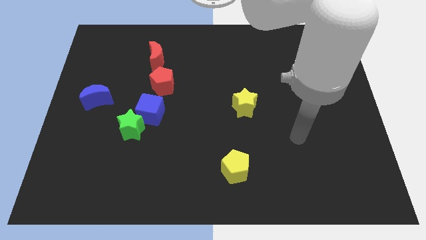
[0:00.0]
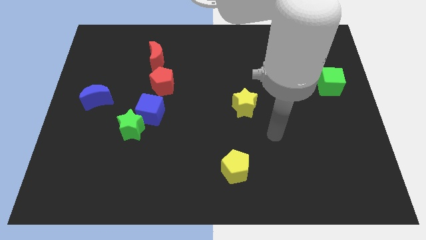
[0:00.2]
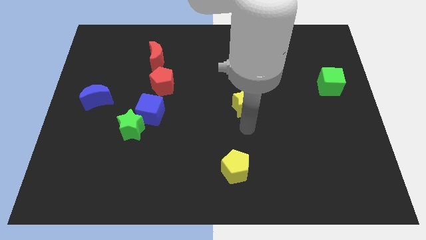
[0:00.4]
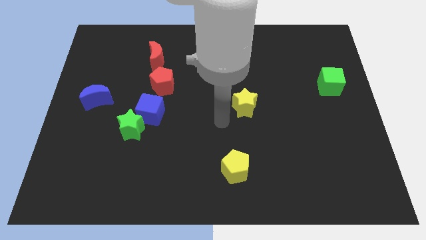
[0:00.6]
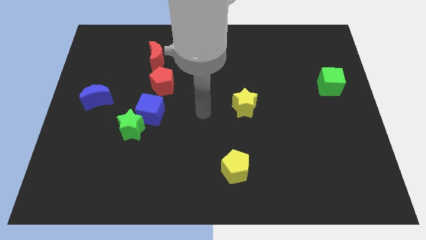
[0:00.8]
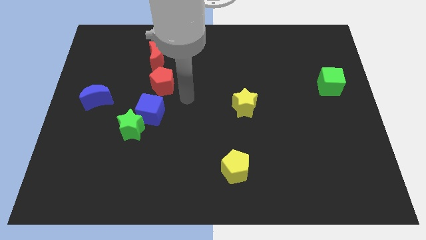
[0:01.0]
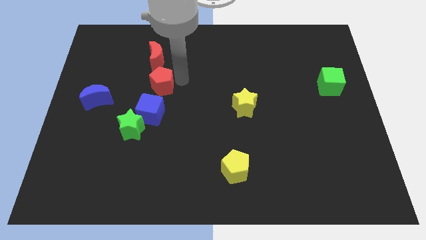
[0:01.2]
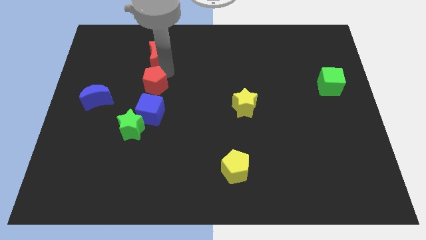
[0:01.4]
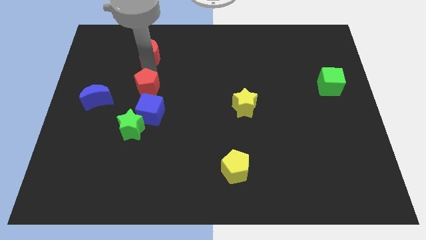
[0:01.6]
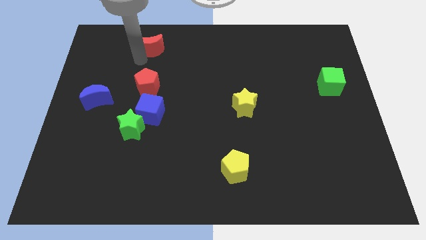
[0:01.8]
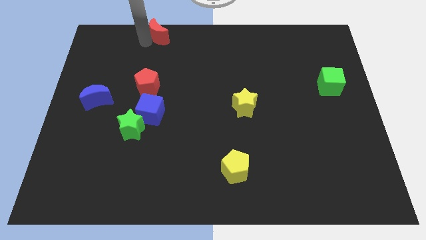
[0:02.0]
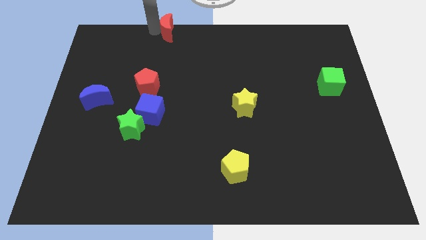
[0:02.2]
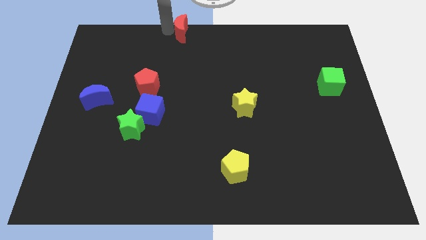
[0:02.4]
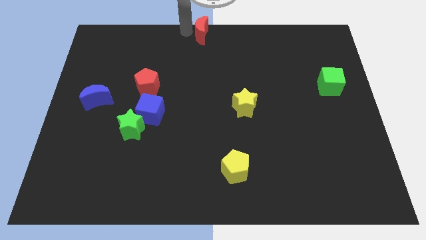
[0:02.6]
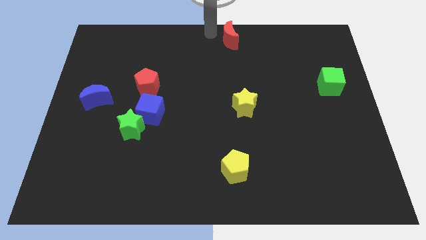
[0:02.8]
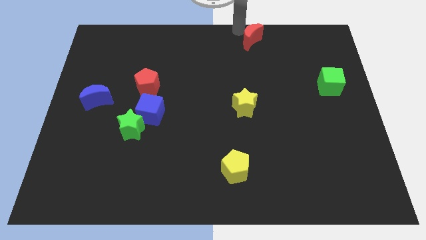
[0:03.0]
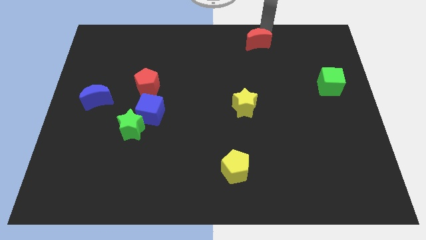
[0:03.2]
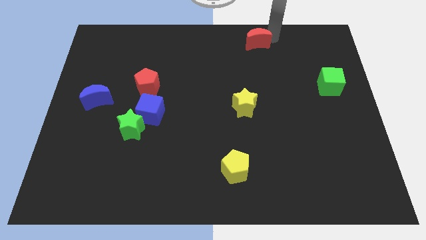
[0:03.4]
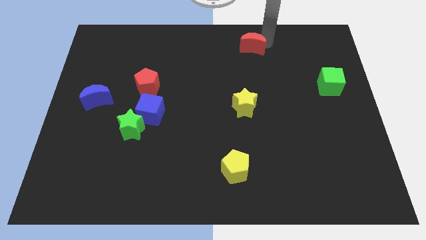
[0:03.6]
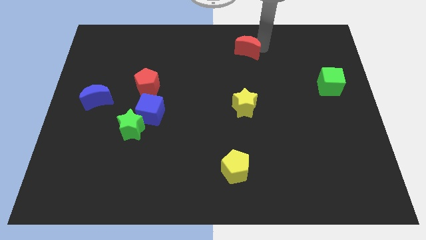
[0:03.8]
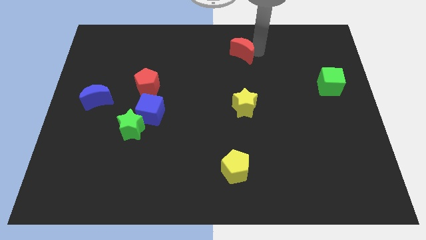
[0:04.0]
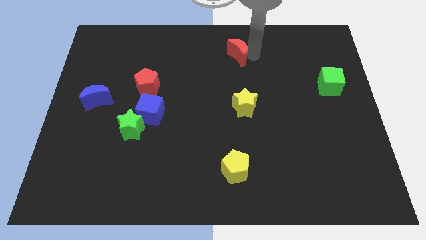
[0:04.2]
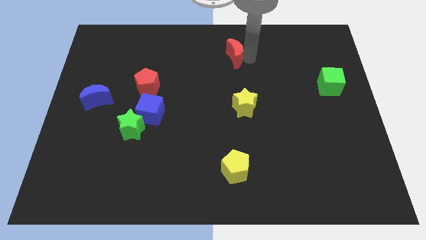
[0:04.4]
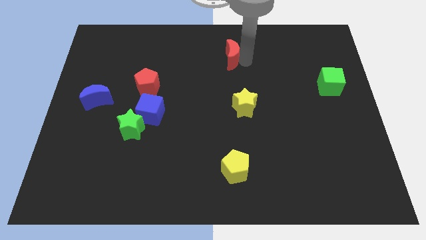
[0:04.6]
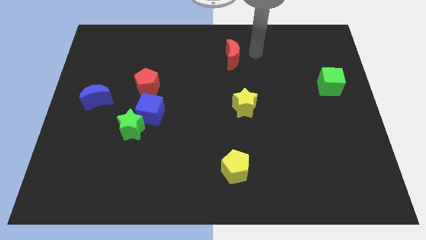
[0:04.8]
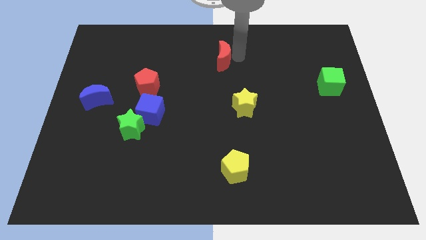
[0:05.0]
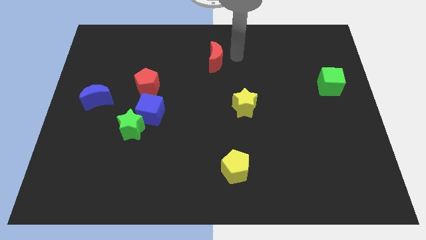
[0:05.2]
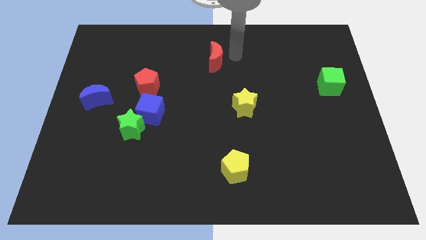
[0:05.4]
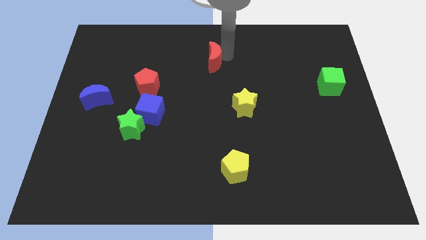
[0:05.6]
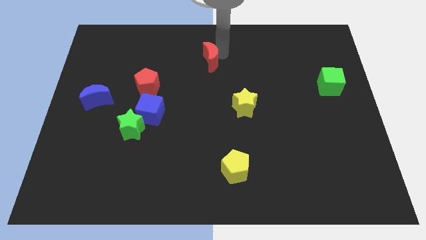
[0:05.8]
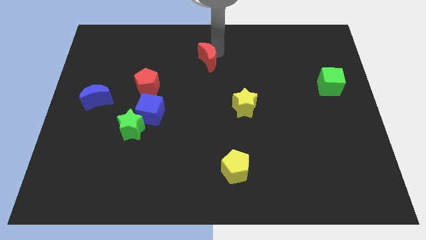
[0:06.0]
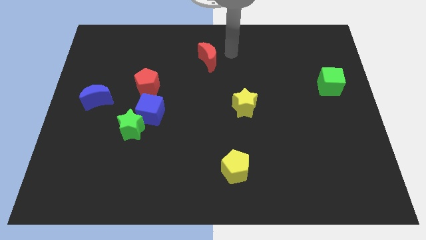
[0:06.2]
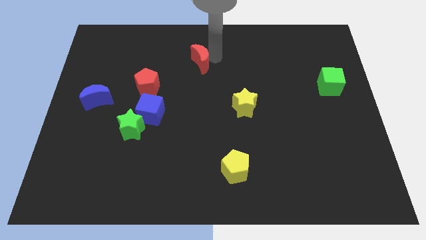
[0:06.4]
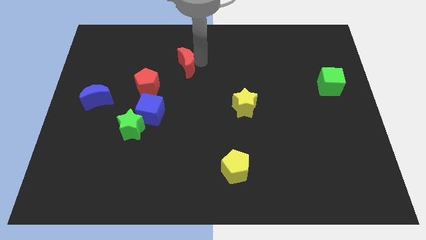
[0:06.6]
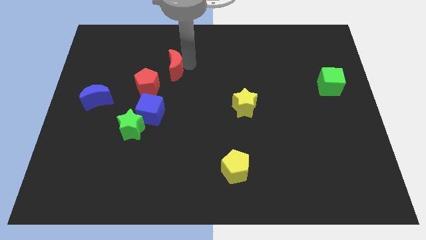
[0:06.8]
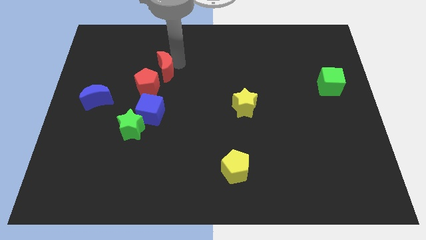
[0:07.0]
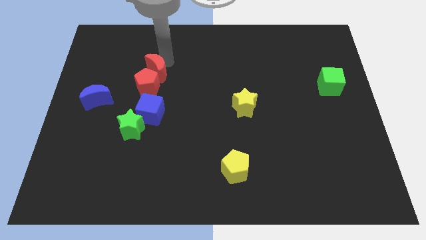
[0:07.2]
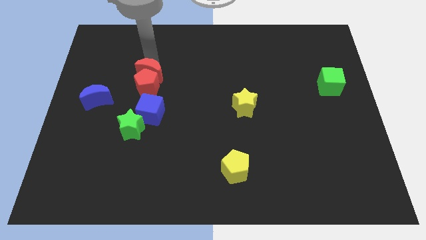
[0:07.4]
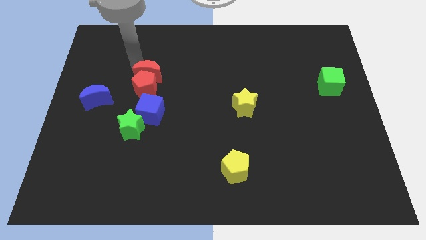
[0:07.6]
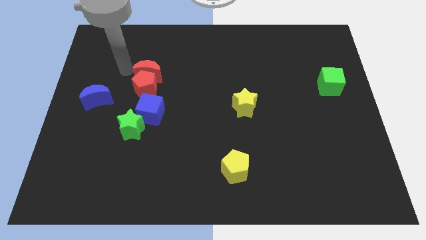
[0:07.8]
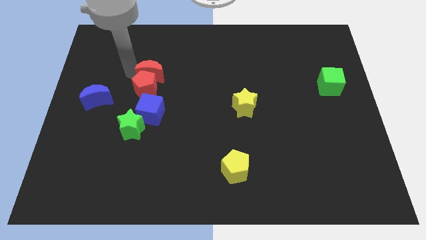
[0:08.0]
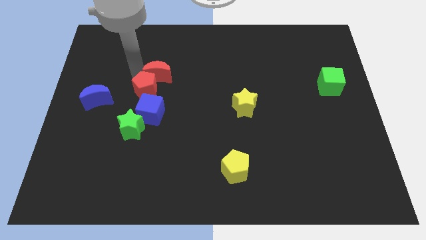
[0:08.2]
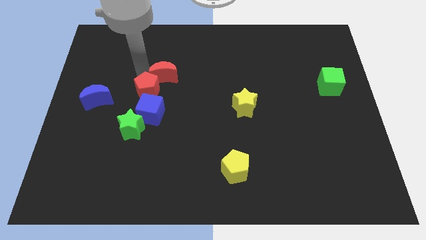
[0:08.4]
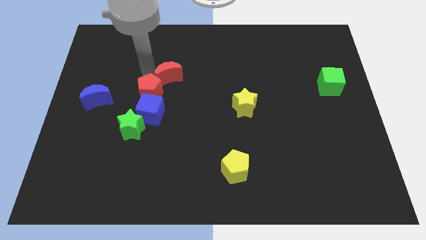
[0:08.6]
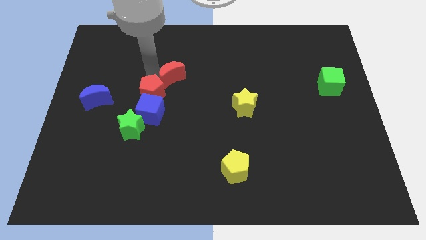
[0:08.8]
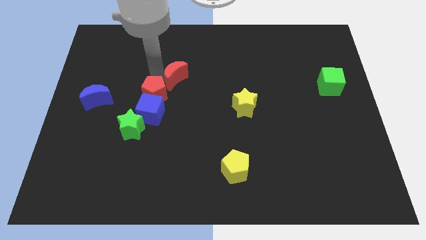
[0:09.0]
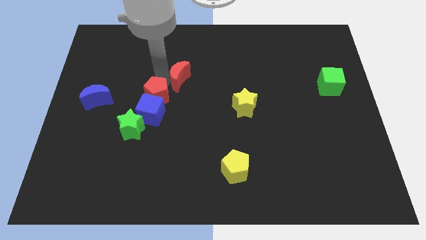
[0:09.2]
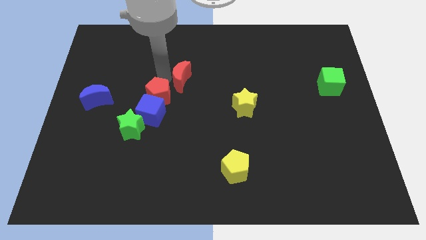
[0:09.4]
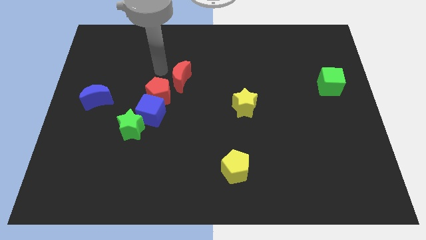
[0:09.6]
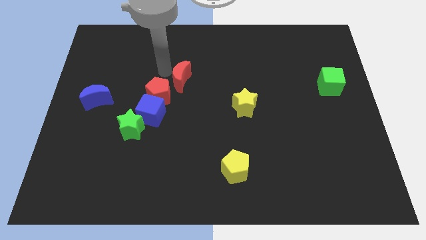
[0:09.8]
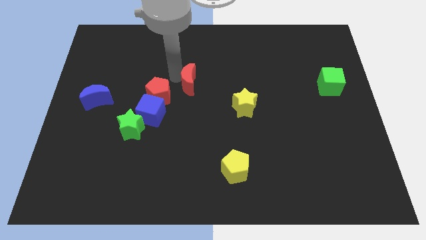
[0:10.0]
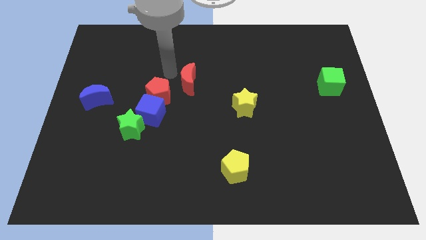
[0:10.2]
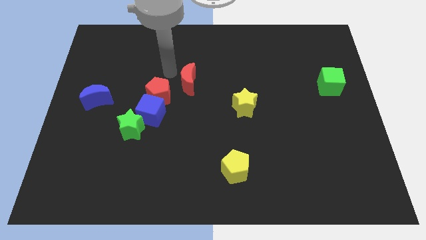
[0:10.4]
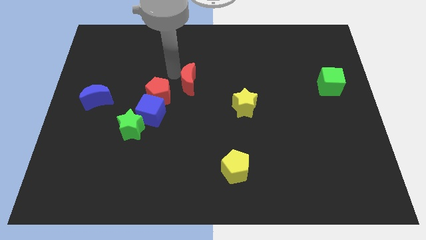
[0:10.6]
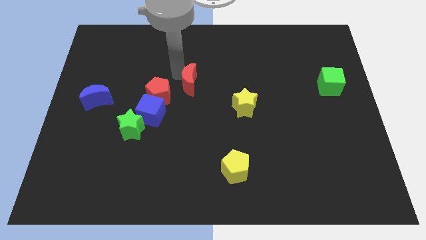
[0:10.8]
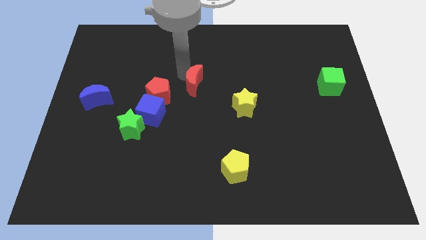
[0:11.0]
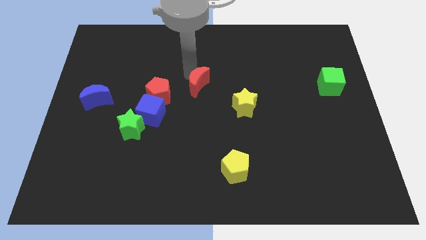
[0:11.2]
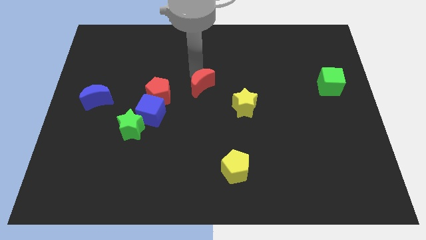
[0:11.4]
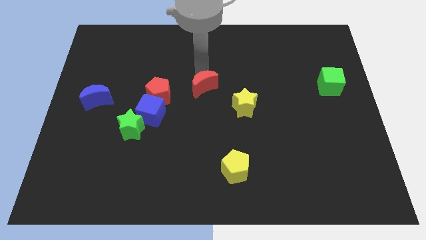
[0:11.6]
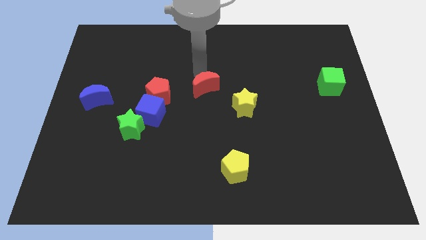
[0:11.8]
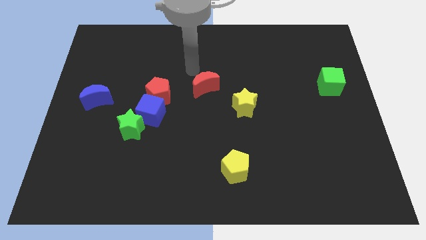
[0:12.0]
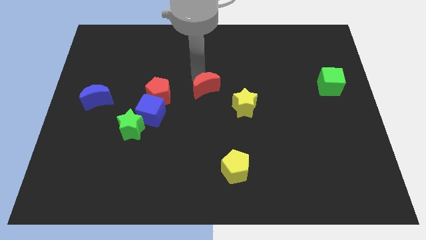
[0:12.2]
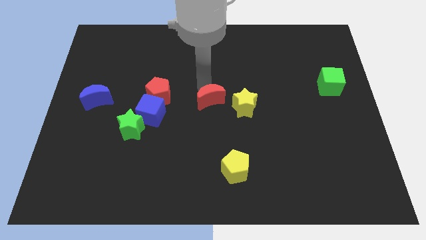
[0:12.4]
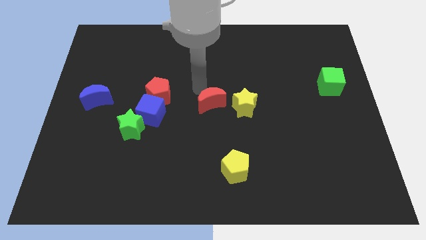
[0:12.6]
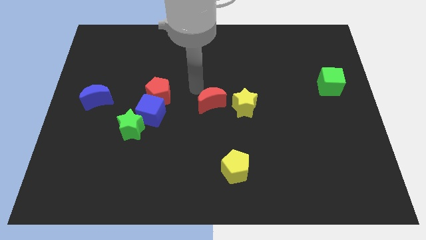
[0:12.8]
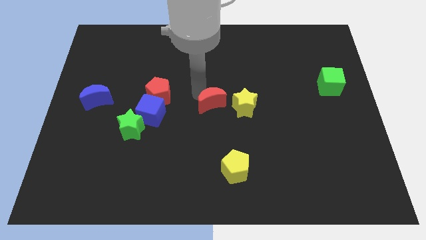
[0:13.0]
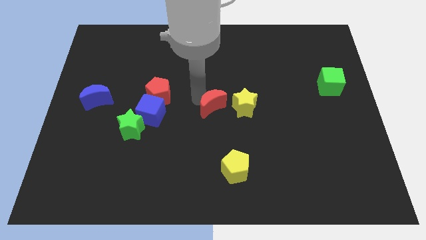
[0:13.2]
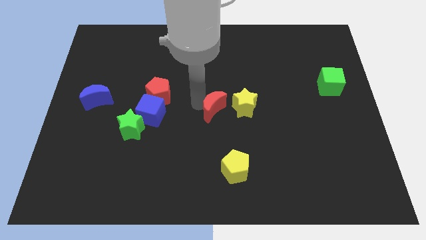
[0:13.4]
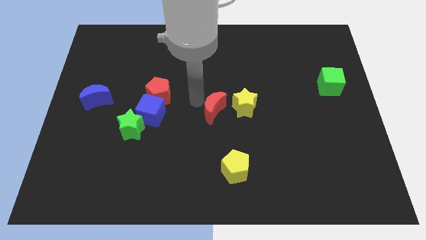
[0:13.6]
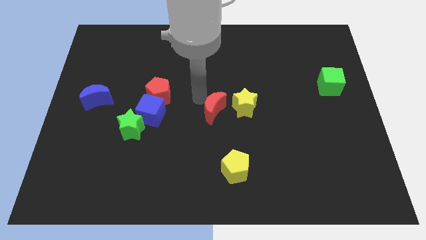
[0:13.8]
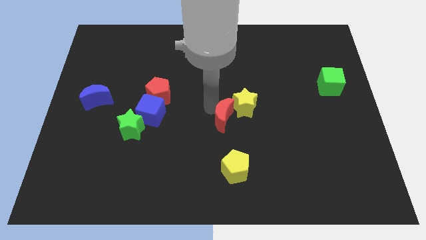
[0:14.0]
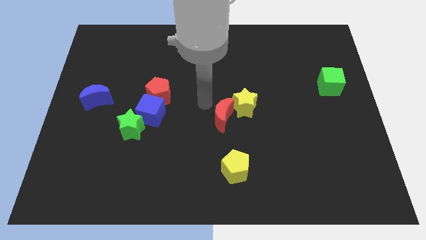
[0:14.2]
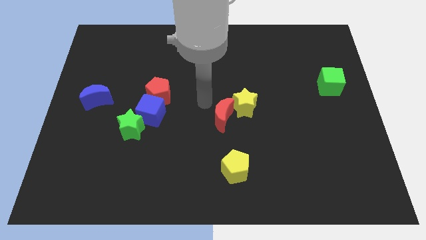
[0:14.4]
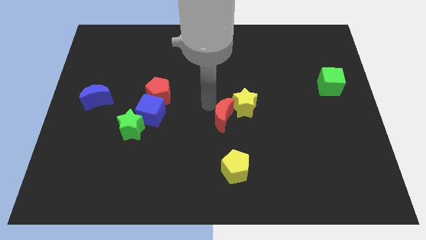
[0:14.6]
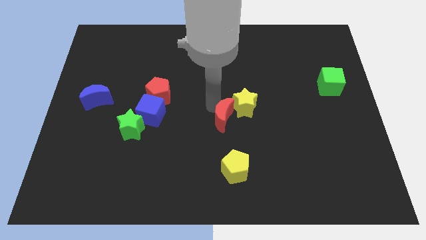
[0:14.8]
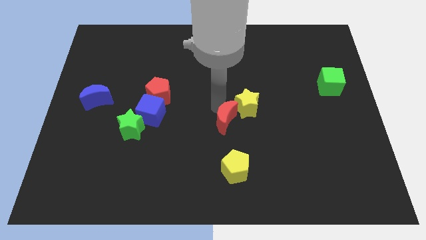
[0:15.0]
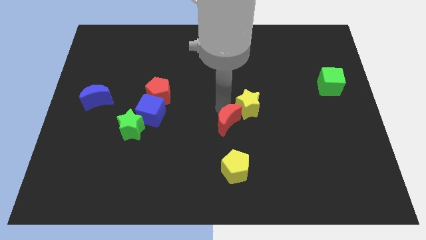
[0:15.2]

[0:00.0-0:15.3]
put the red moon below the yellow star
